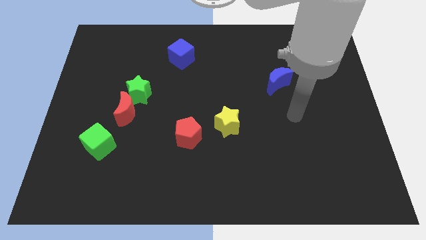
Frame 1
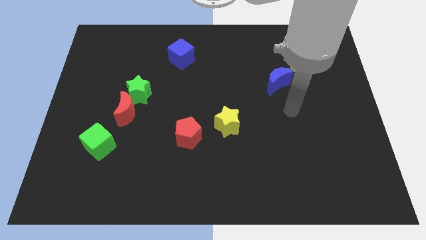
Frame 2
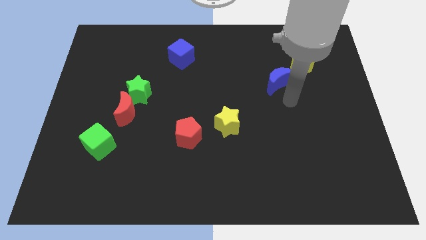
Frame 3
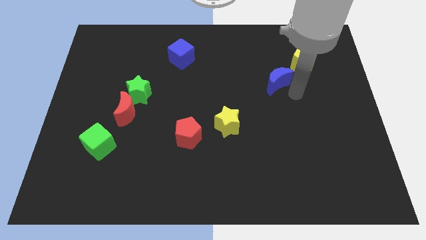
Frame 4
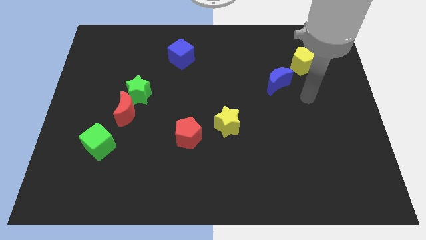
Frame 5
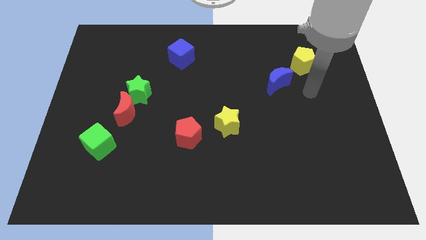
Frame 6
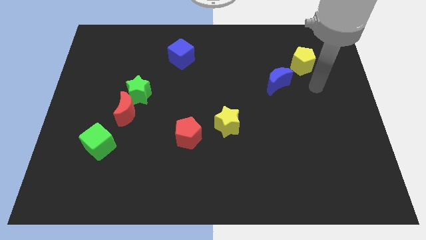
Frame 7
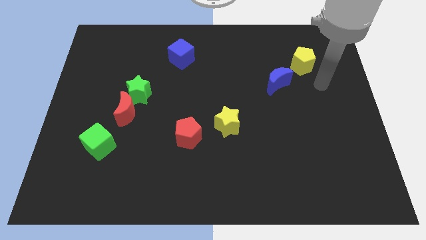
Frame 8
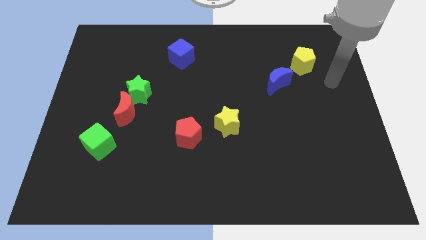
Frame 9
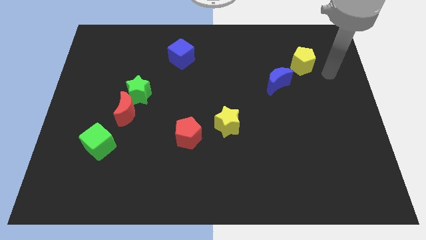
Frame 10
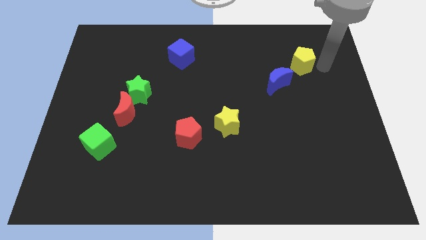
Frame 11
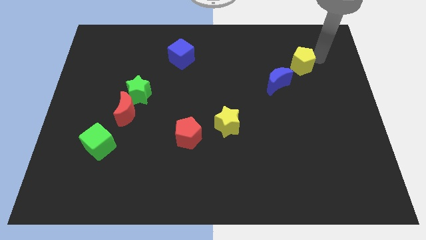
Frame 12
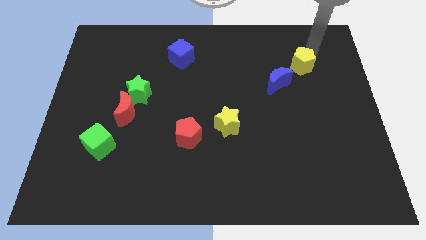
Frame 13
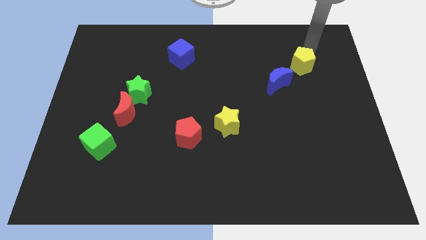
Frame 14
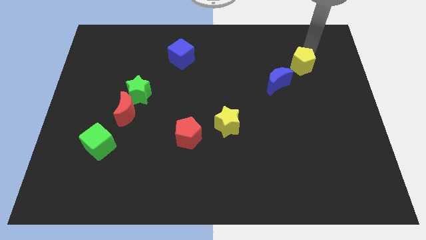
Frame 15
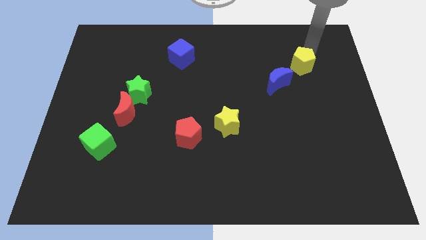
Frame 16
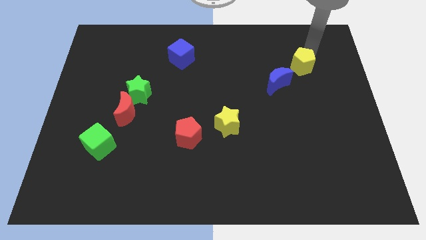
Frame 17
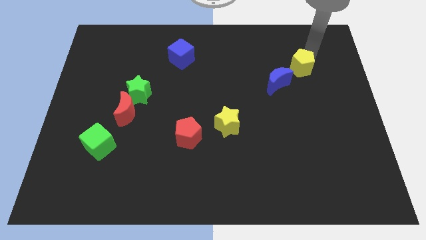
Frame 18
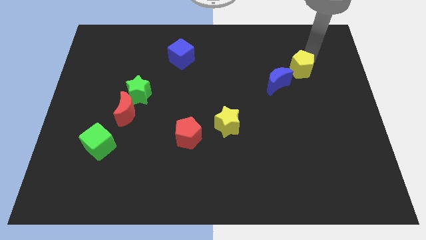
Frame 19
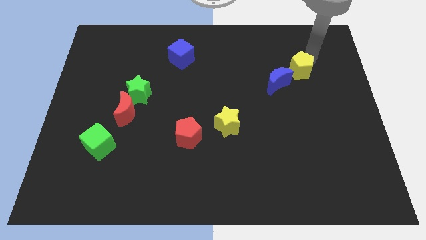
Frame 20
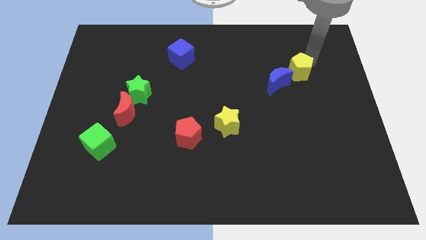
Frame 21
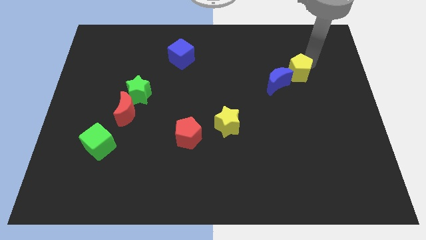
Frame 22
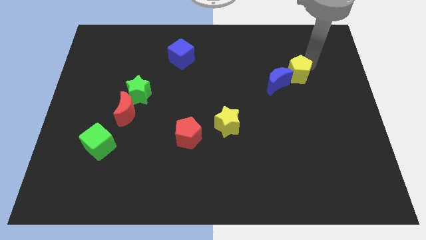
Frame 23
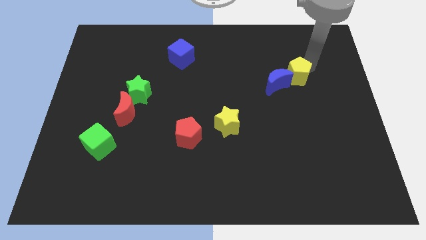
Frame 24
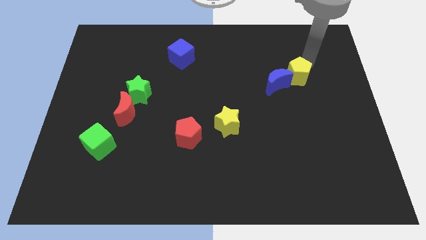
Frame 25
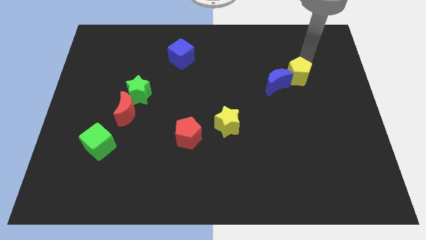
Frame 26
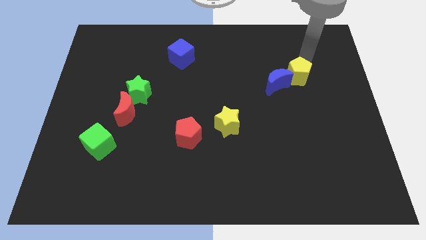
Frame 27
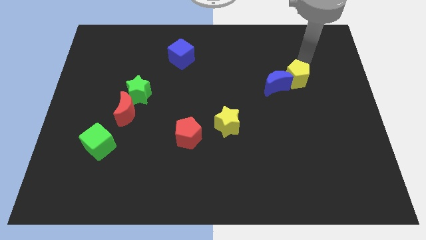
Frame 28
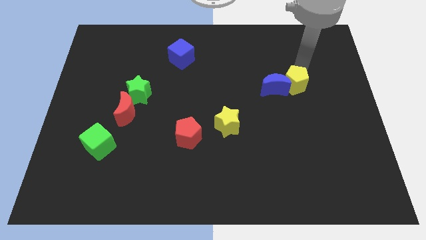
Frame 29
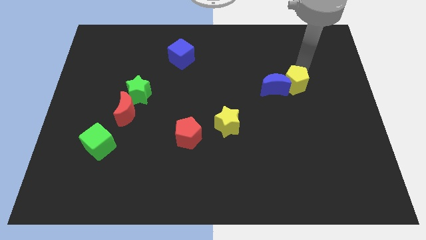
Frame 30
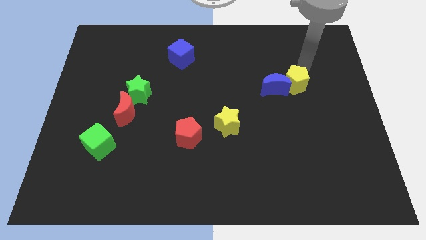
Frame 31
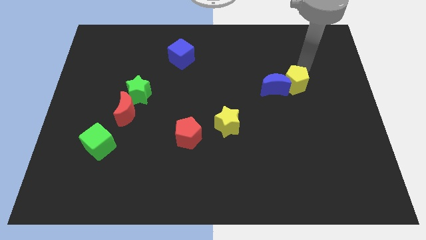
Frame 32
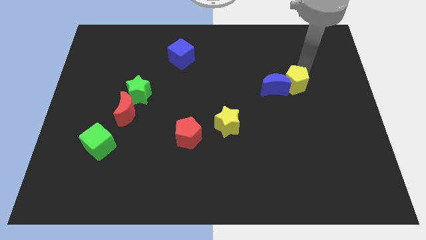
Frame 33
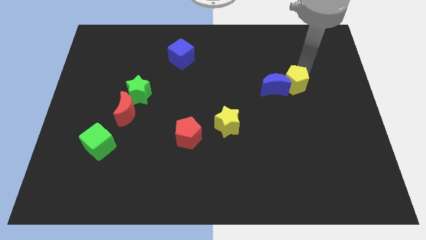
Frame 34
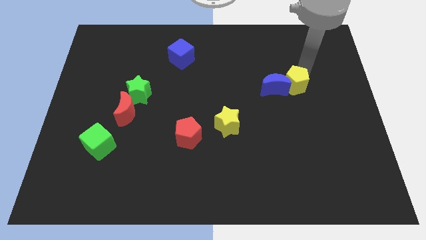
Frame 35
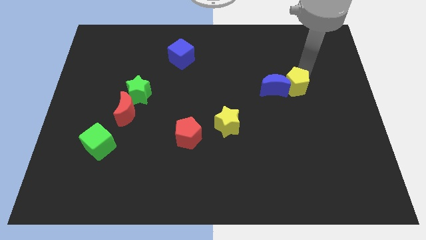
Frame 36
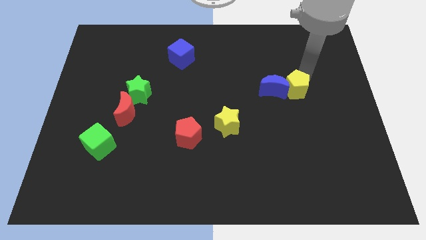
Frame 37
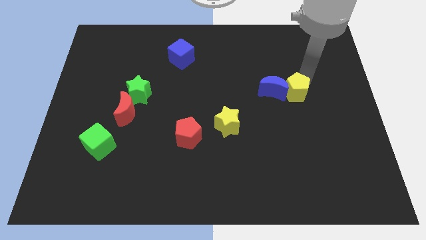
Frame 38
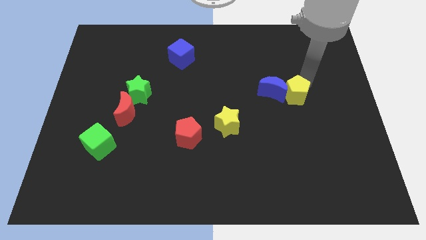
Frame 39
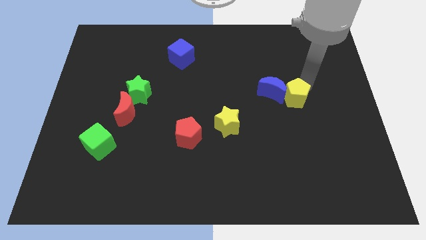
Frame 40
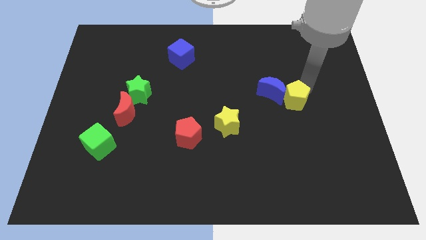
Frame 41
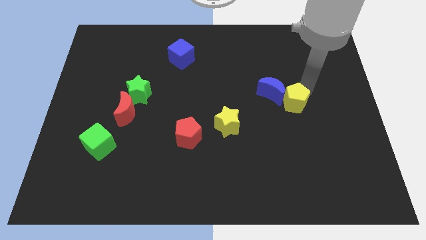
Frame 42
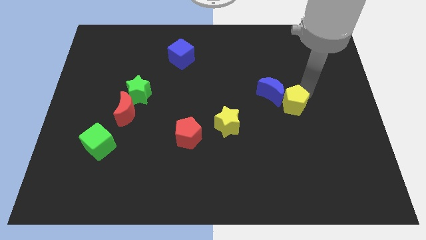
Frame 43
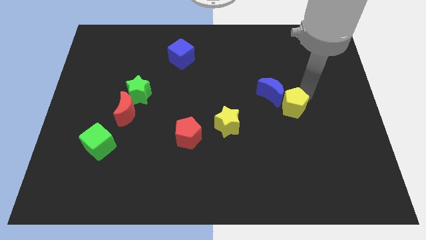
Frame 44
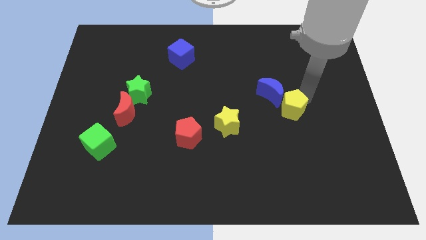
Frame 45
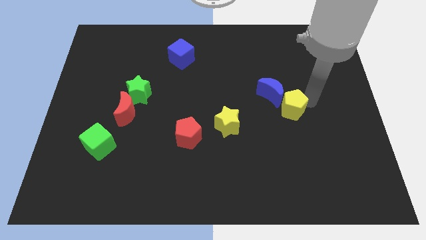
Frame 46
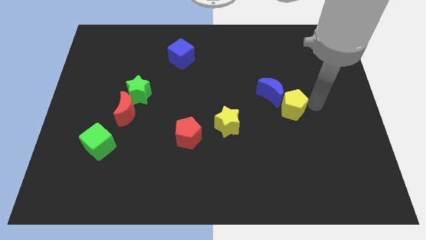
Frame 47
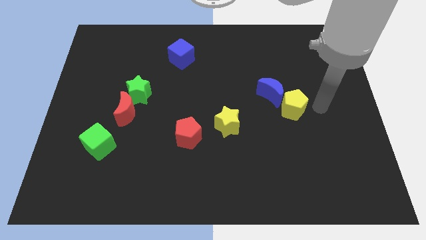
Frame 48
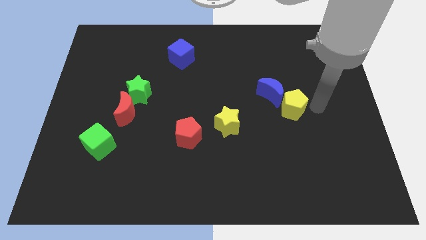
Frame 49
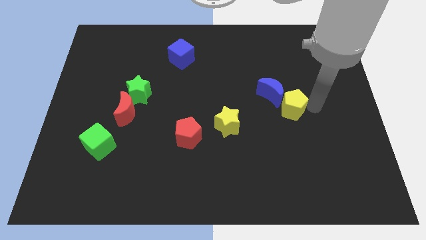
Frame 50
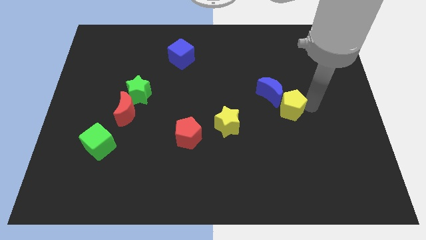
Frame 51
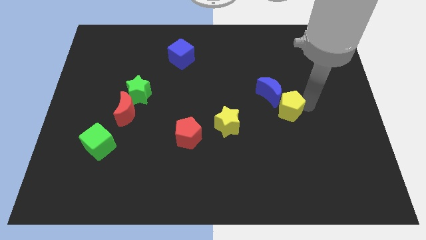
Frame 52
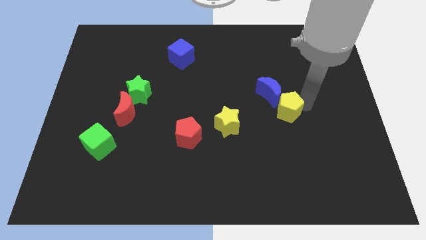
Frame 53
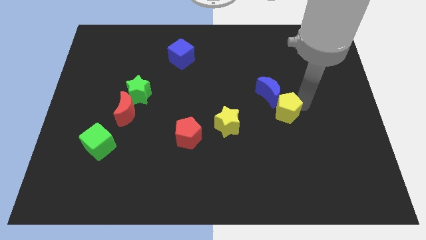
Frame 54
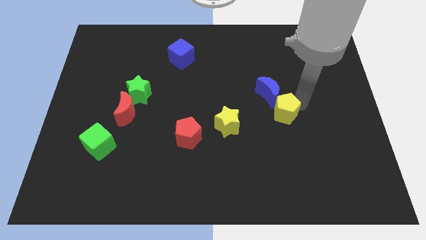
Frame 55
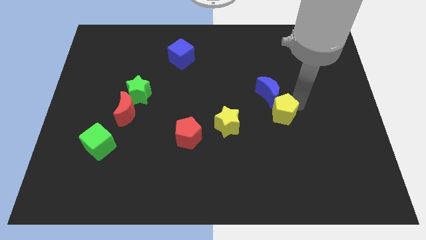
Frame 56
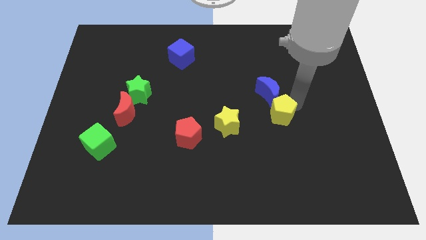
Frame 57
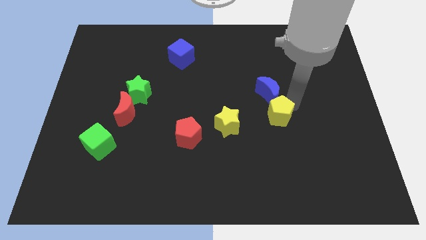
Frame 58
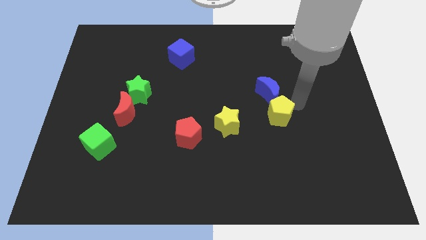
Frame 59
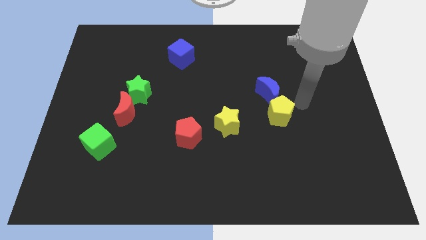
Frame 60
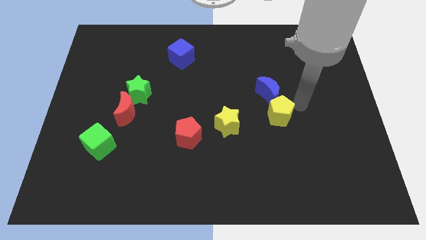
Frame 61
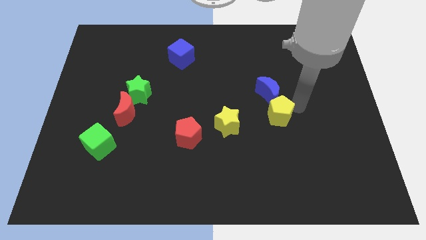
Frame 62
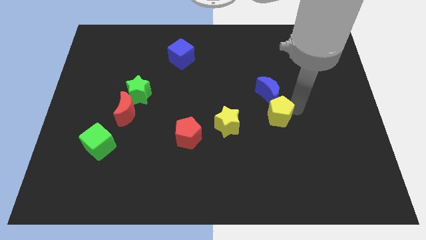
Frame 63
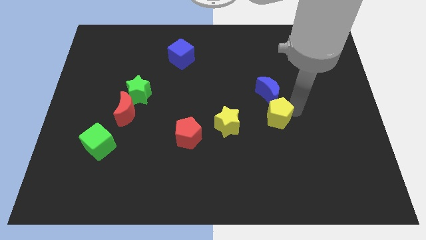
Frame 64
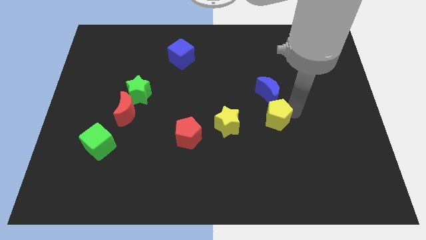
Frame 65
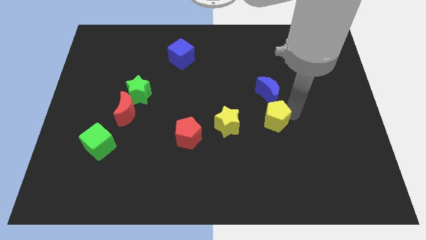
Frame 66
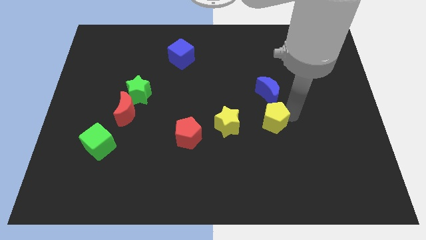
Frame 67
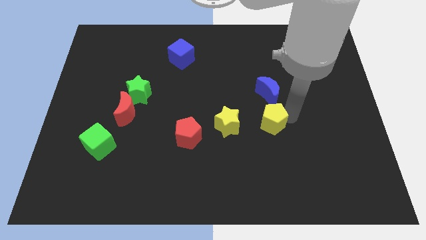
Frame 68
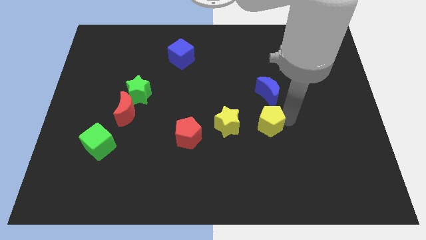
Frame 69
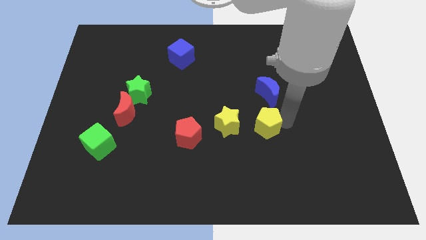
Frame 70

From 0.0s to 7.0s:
push the yellow pentagon downwards and left

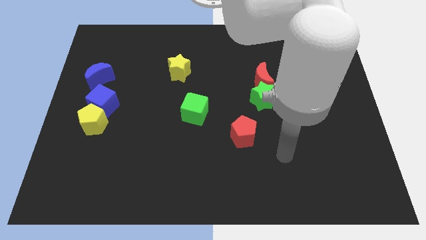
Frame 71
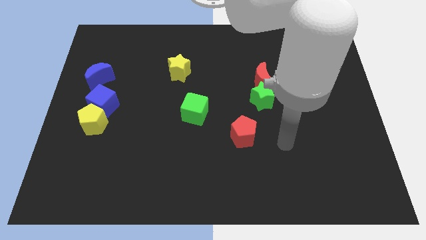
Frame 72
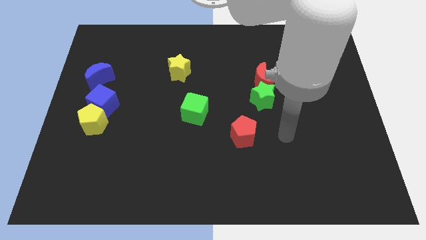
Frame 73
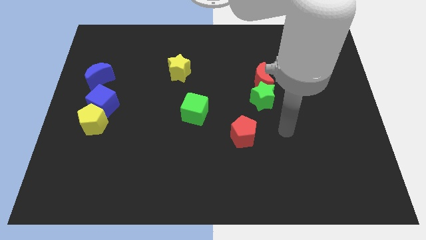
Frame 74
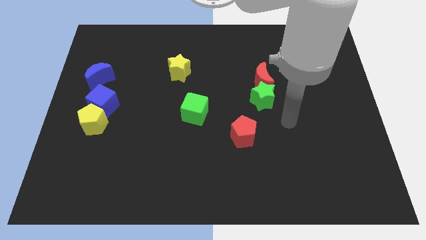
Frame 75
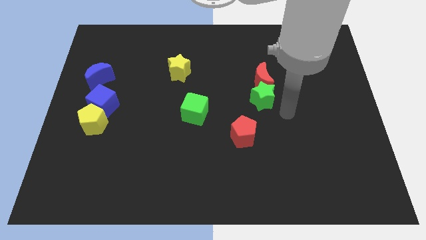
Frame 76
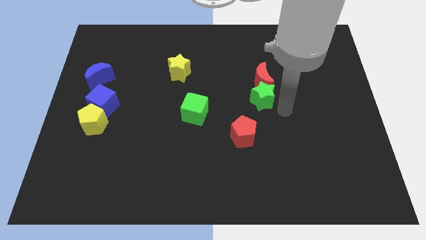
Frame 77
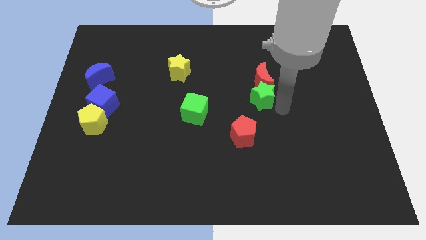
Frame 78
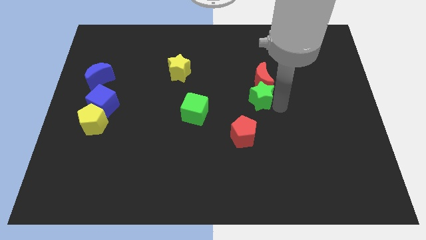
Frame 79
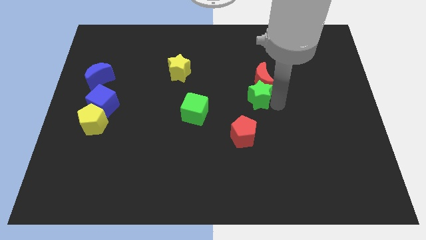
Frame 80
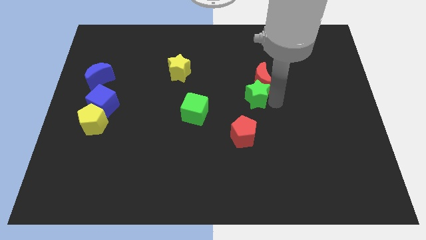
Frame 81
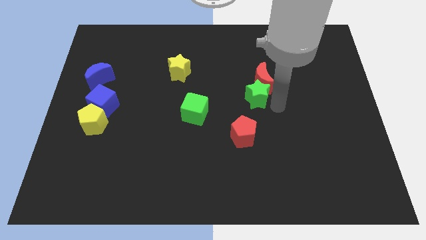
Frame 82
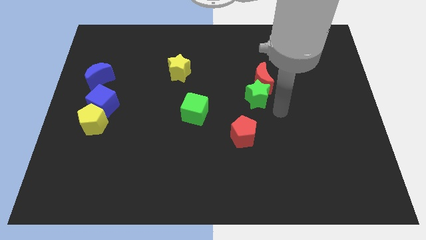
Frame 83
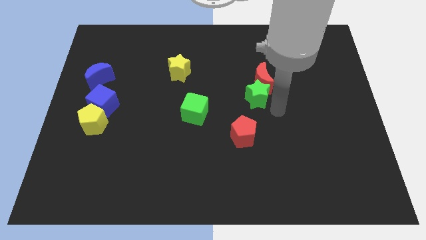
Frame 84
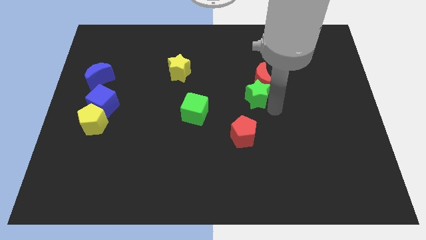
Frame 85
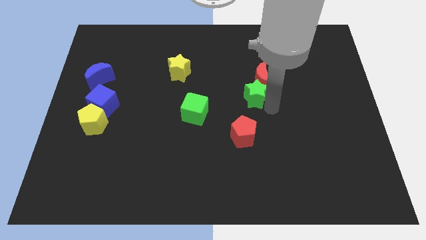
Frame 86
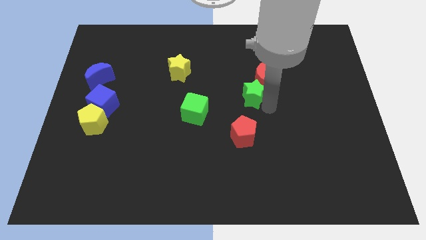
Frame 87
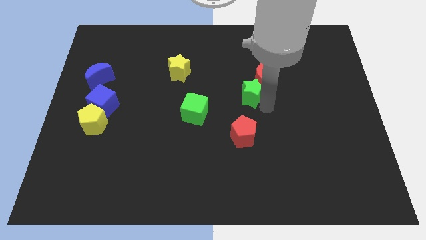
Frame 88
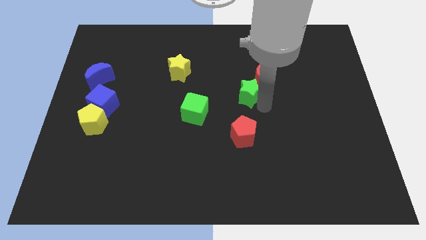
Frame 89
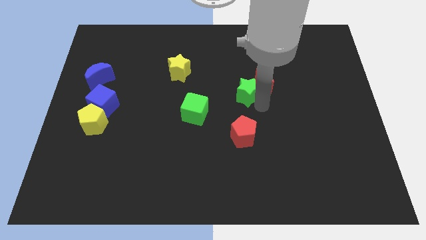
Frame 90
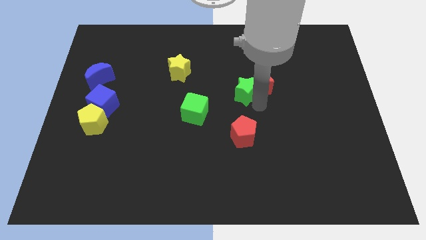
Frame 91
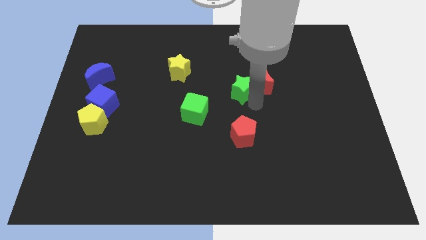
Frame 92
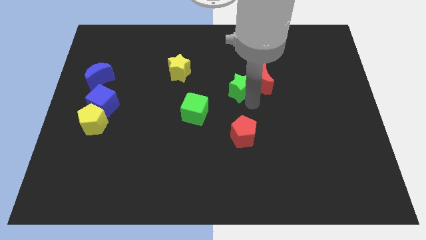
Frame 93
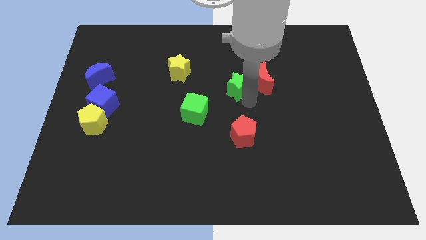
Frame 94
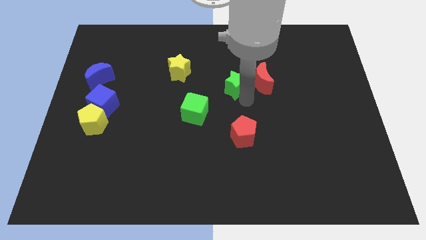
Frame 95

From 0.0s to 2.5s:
move the green star upwards and then to the left a little
